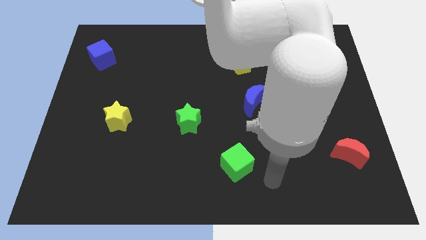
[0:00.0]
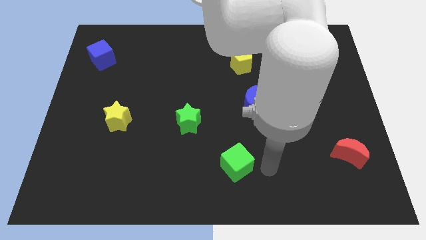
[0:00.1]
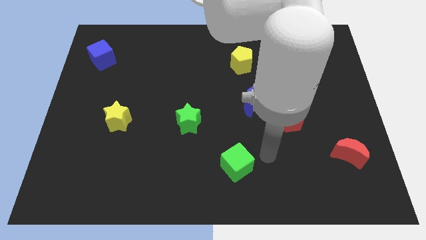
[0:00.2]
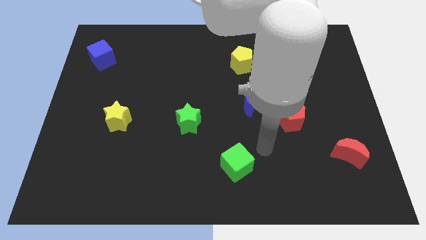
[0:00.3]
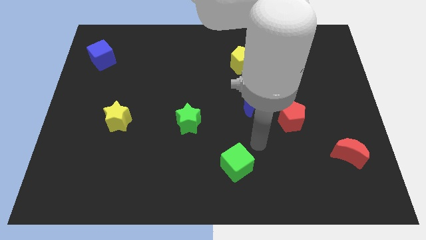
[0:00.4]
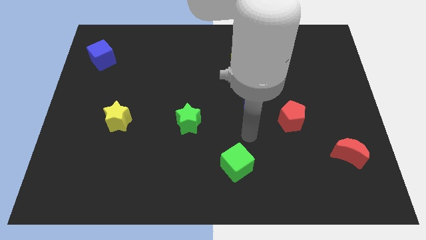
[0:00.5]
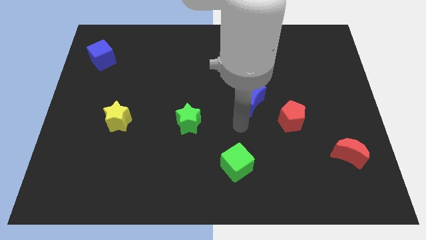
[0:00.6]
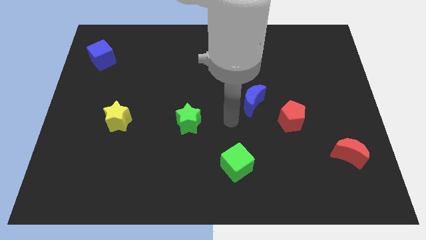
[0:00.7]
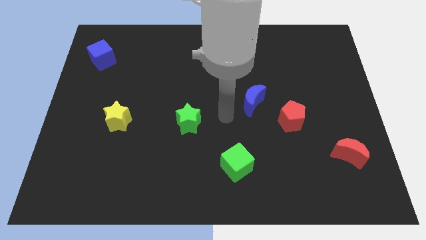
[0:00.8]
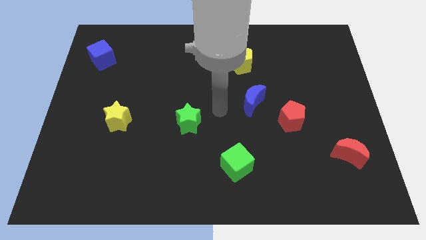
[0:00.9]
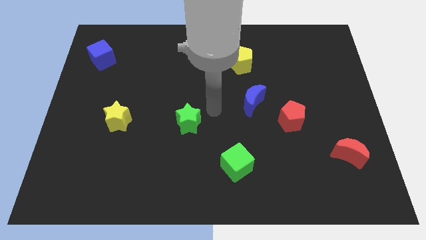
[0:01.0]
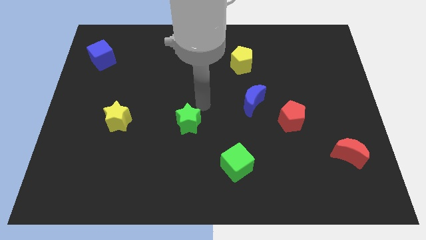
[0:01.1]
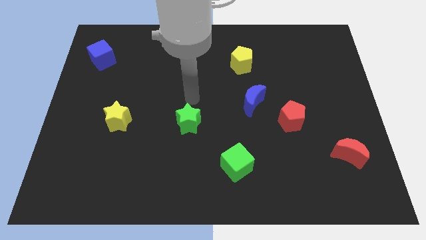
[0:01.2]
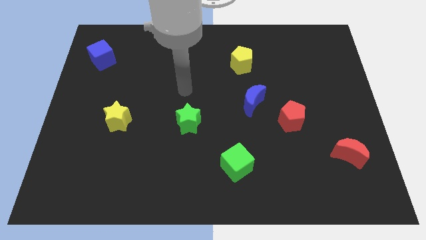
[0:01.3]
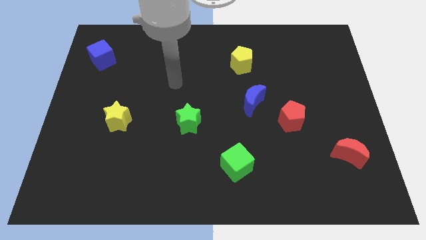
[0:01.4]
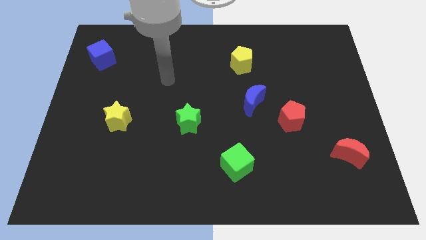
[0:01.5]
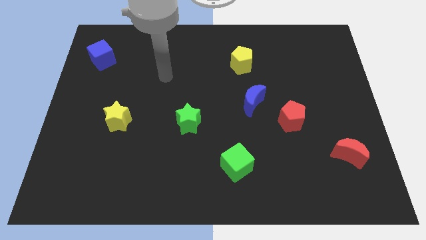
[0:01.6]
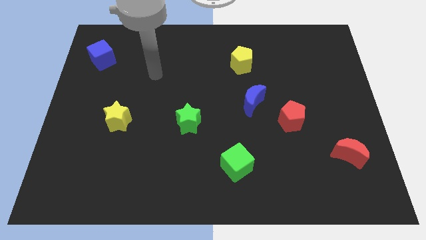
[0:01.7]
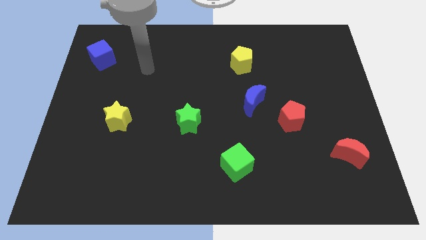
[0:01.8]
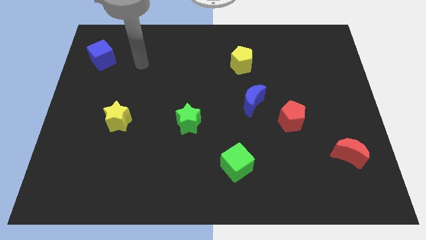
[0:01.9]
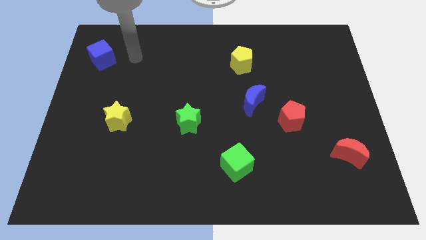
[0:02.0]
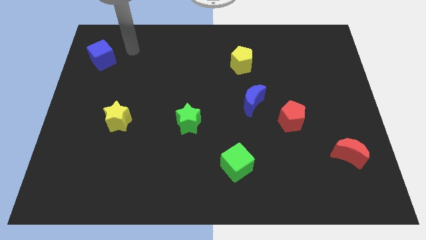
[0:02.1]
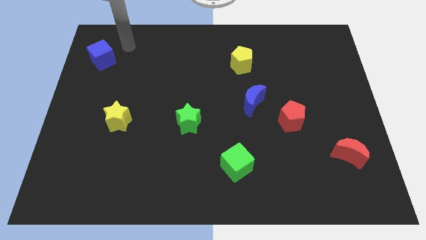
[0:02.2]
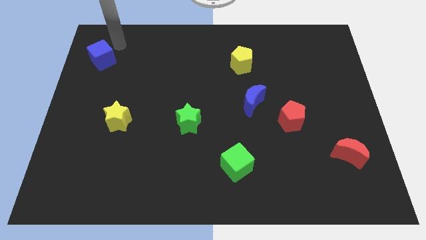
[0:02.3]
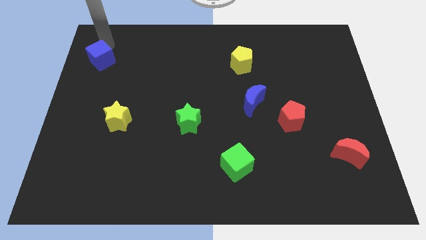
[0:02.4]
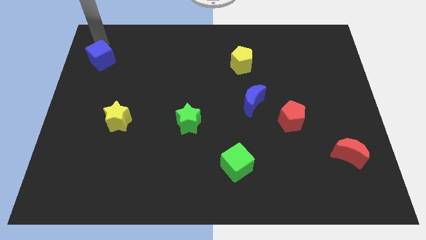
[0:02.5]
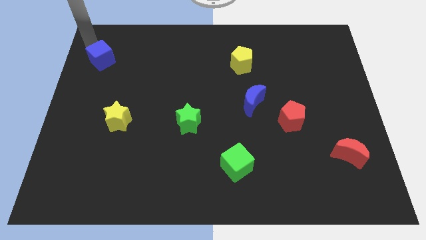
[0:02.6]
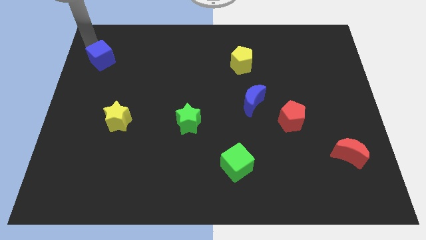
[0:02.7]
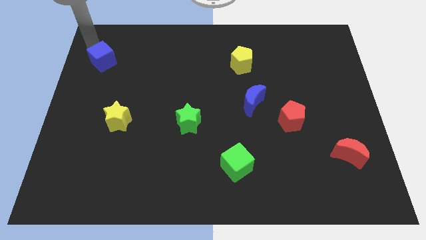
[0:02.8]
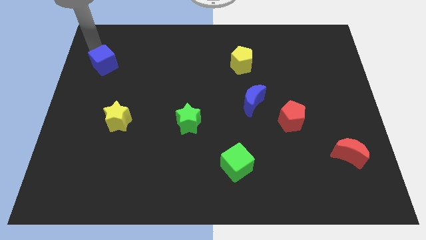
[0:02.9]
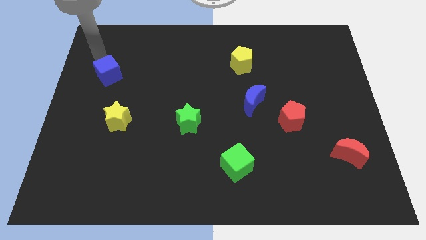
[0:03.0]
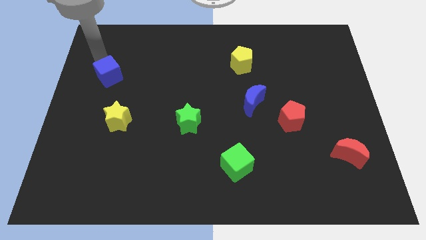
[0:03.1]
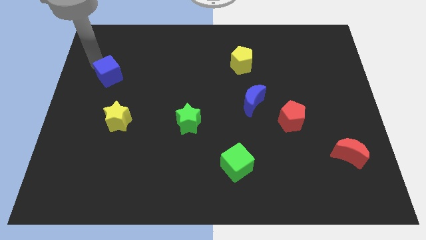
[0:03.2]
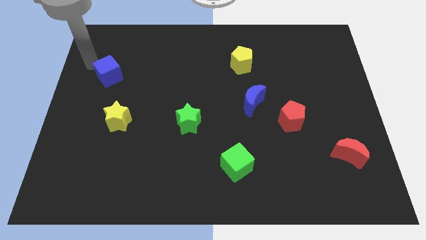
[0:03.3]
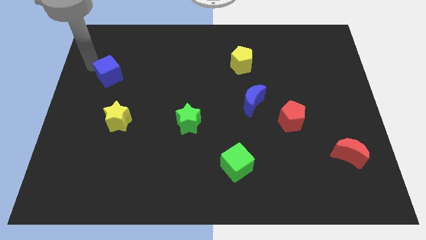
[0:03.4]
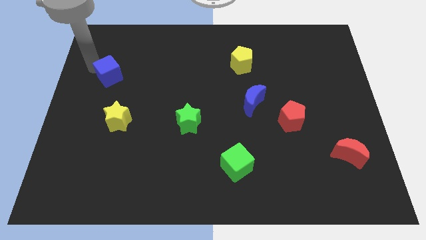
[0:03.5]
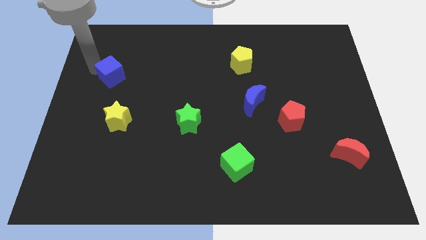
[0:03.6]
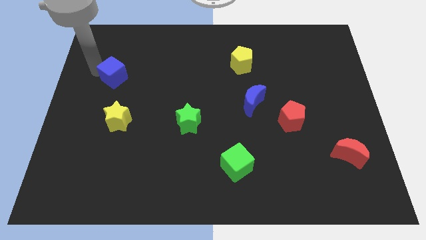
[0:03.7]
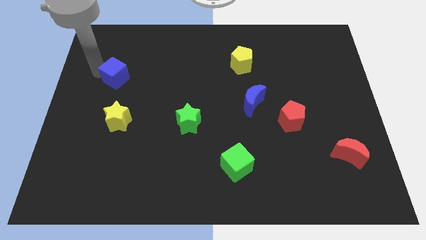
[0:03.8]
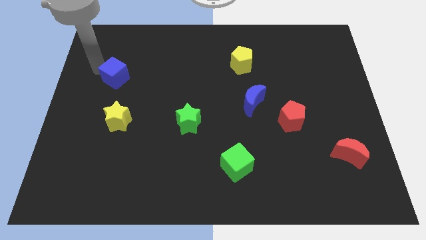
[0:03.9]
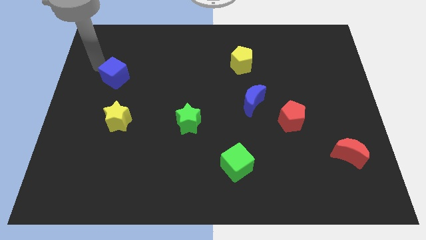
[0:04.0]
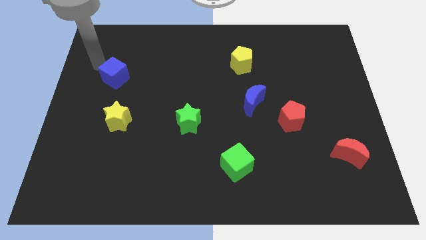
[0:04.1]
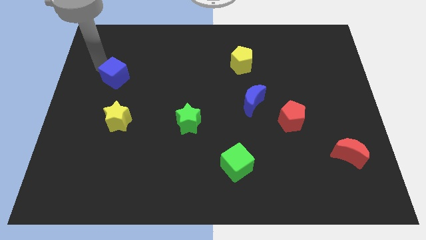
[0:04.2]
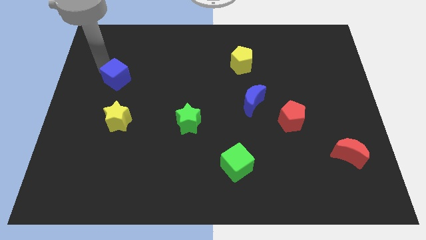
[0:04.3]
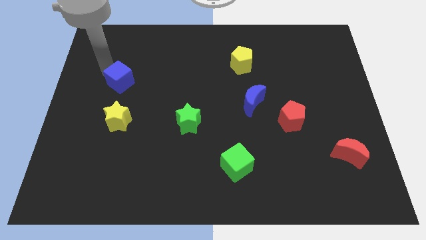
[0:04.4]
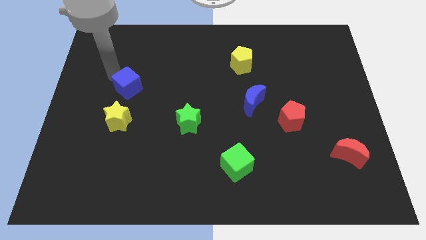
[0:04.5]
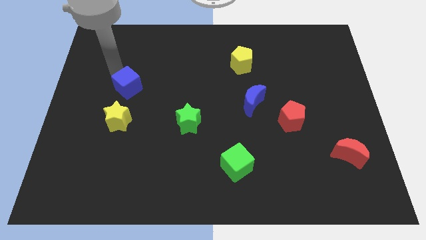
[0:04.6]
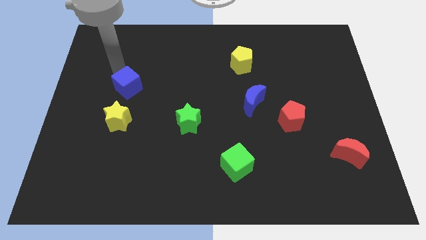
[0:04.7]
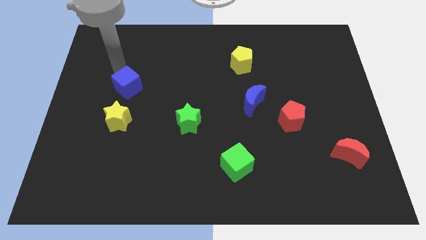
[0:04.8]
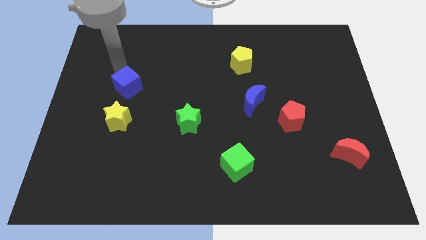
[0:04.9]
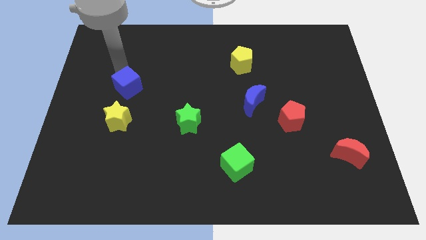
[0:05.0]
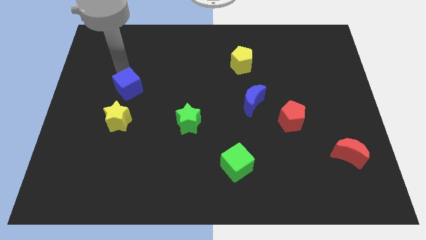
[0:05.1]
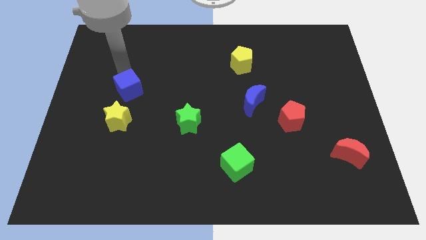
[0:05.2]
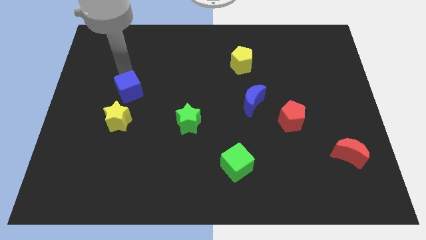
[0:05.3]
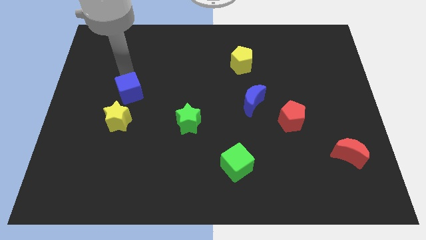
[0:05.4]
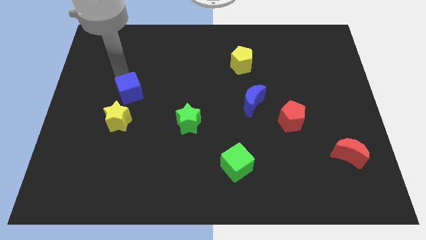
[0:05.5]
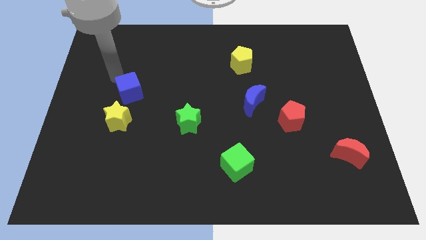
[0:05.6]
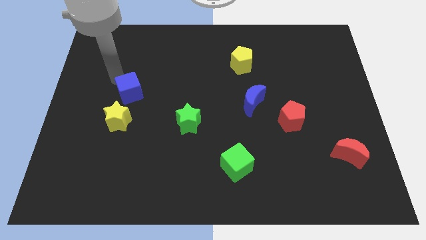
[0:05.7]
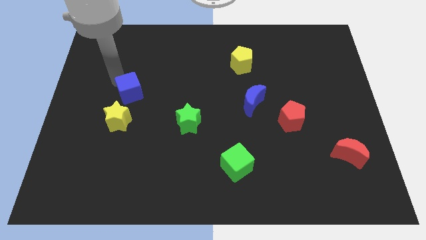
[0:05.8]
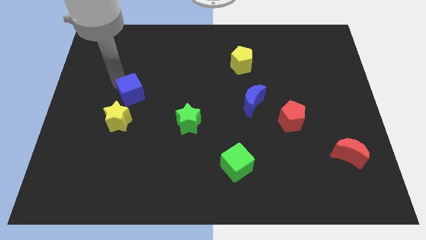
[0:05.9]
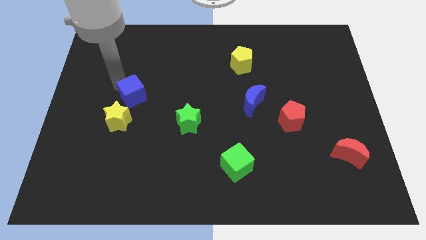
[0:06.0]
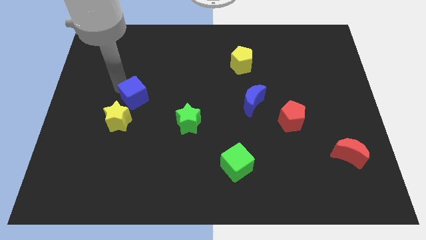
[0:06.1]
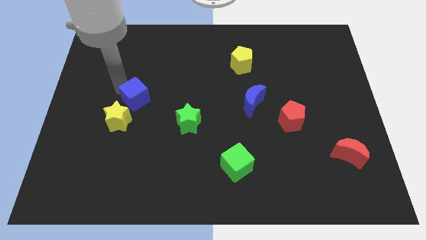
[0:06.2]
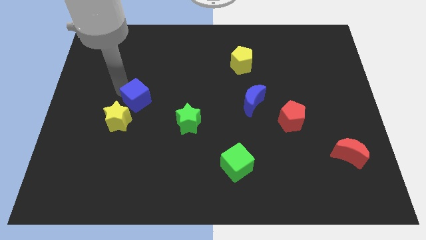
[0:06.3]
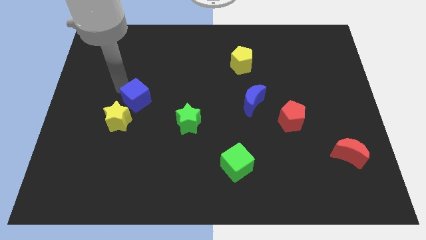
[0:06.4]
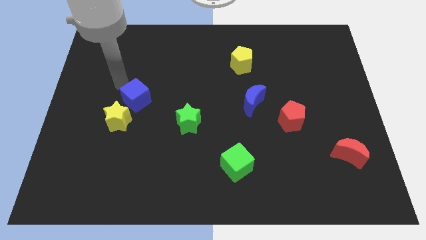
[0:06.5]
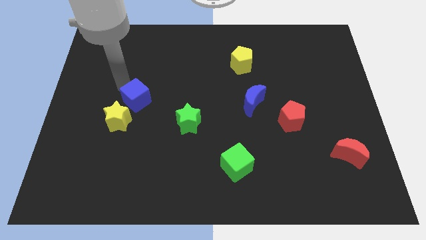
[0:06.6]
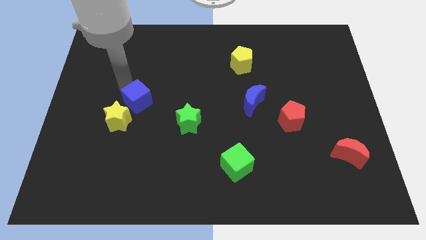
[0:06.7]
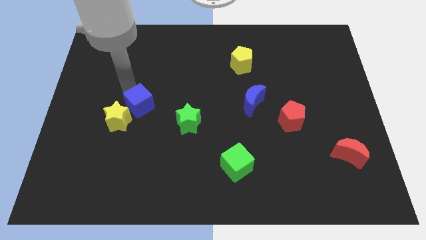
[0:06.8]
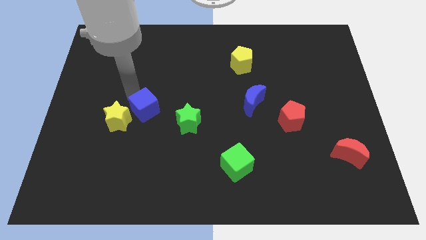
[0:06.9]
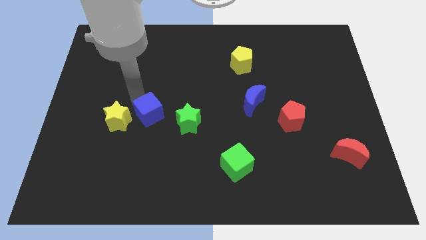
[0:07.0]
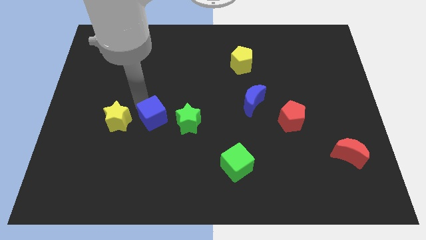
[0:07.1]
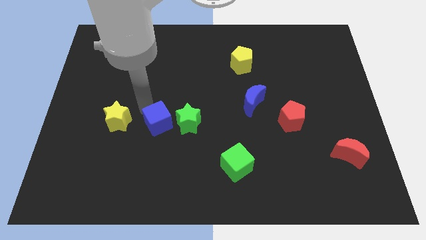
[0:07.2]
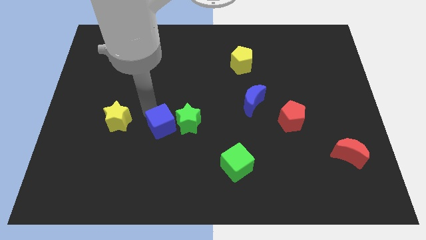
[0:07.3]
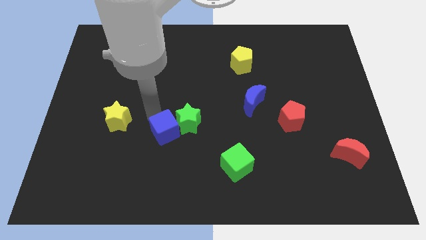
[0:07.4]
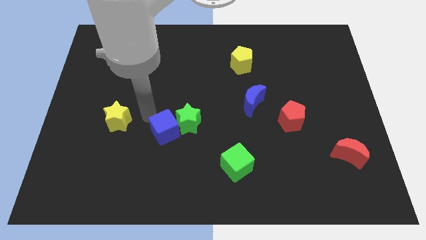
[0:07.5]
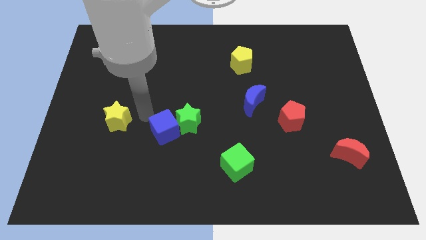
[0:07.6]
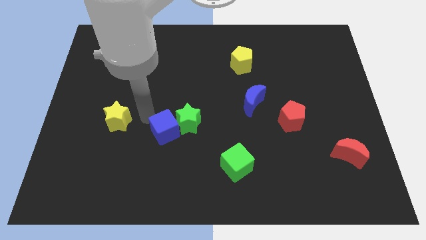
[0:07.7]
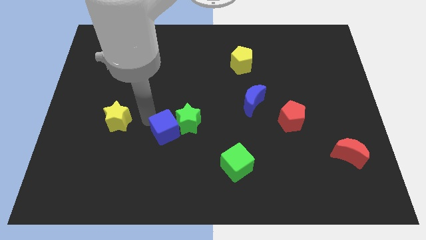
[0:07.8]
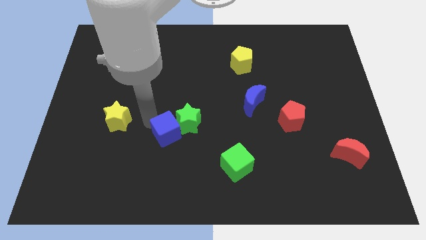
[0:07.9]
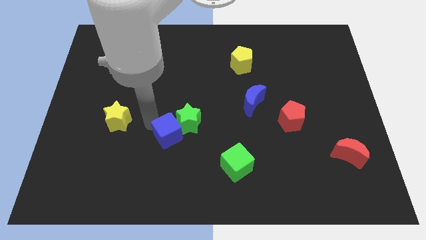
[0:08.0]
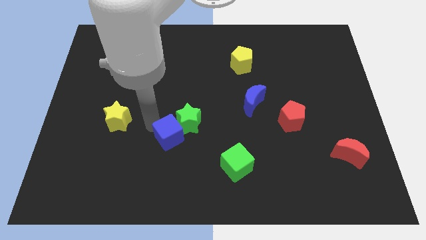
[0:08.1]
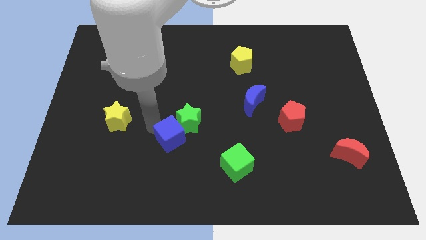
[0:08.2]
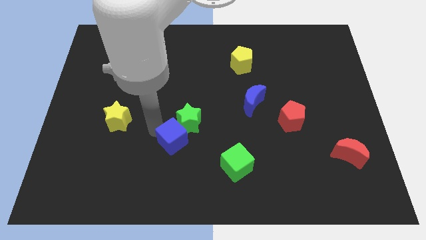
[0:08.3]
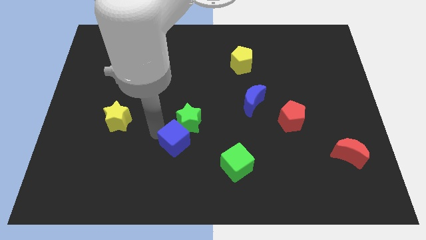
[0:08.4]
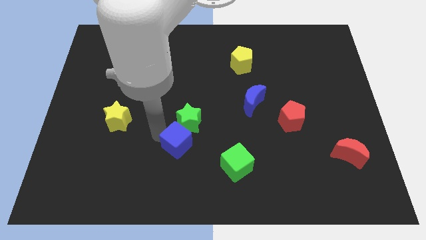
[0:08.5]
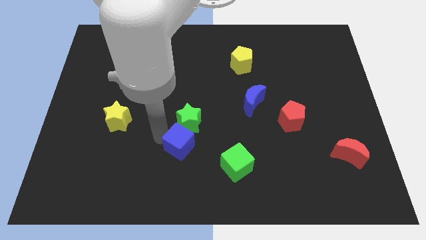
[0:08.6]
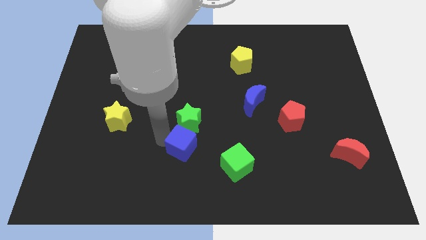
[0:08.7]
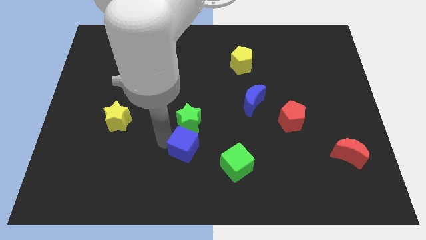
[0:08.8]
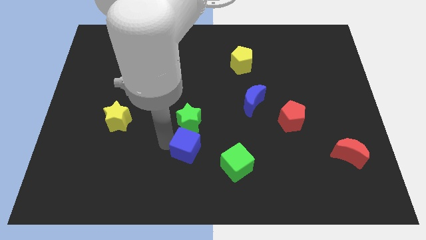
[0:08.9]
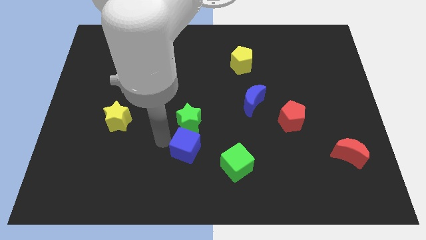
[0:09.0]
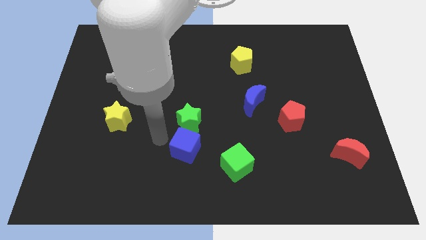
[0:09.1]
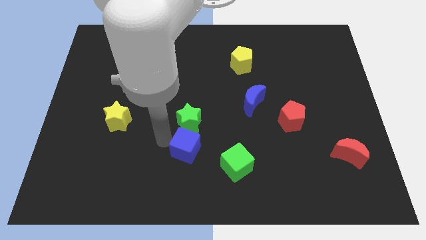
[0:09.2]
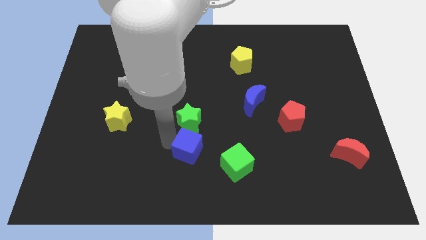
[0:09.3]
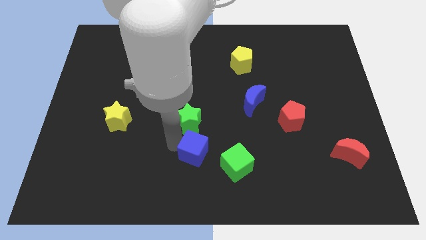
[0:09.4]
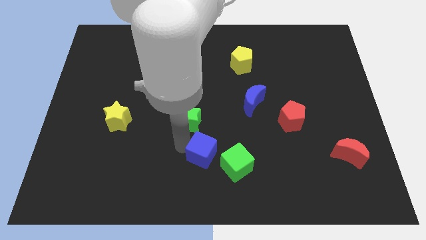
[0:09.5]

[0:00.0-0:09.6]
move the blue cube to the bottom
